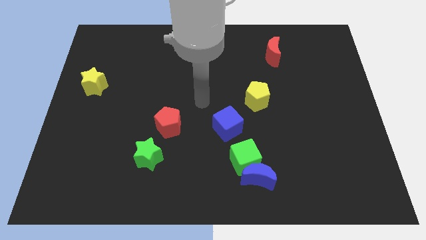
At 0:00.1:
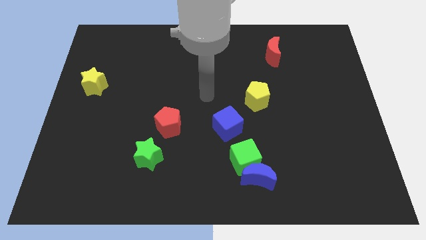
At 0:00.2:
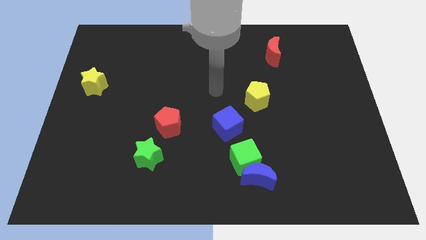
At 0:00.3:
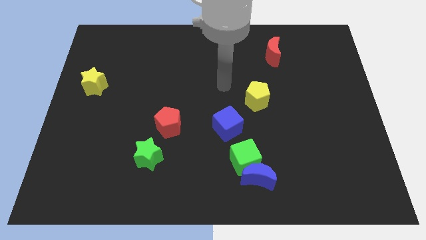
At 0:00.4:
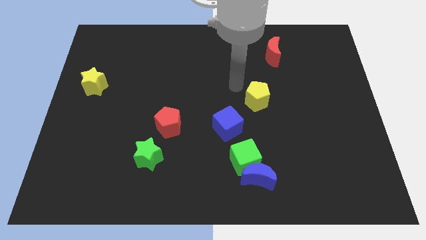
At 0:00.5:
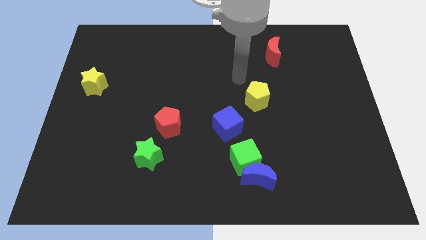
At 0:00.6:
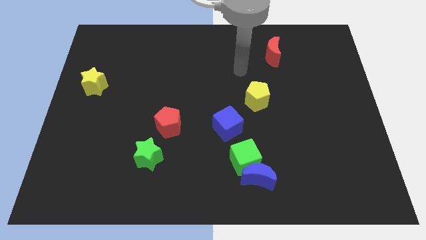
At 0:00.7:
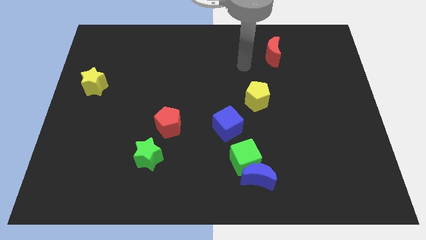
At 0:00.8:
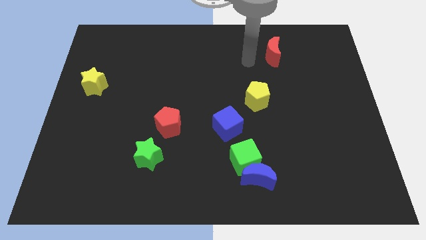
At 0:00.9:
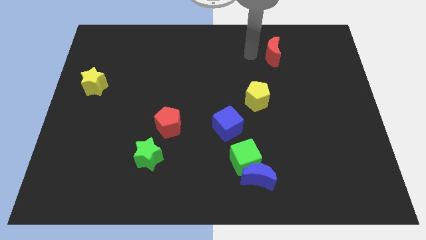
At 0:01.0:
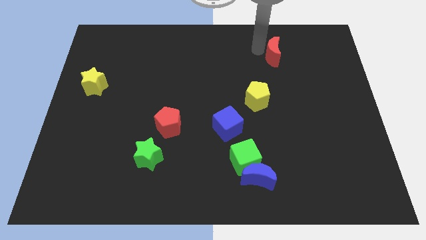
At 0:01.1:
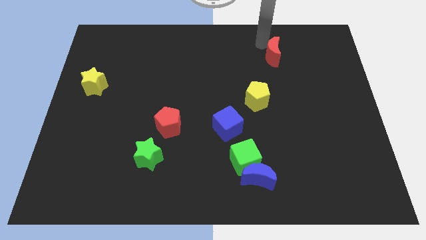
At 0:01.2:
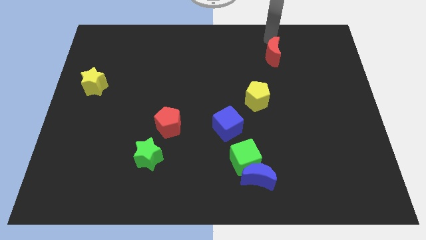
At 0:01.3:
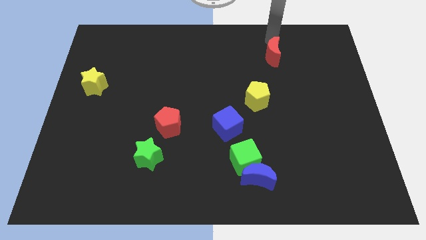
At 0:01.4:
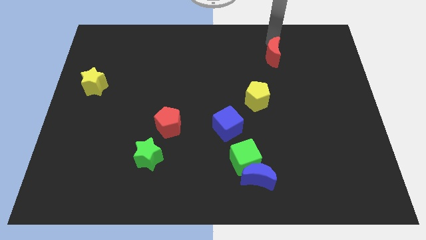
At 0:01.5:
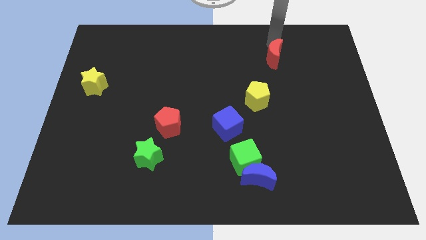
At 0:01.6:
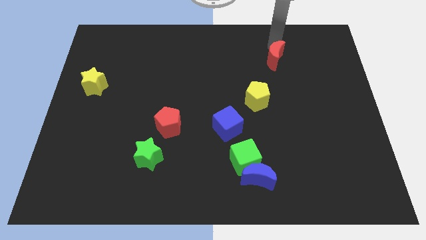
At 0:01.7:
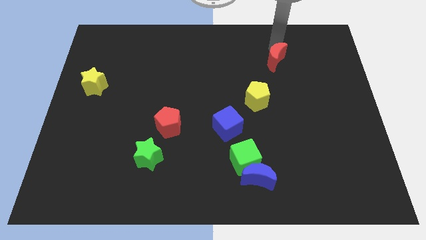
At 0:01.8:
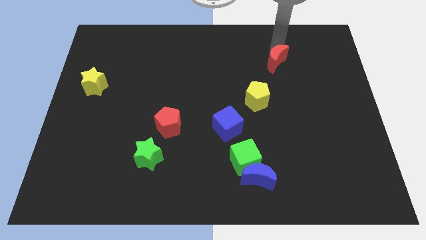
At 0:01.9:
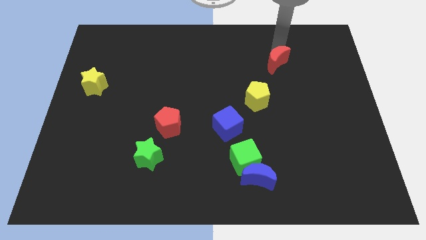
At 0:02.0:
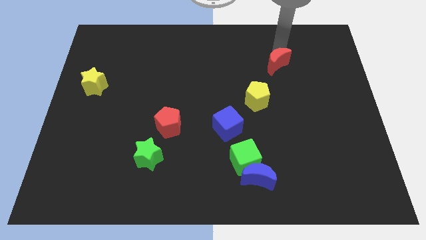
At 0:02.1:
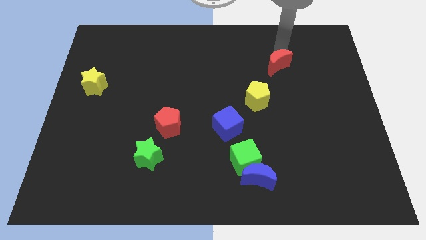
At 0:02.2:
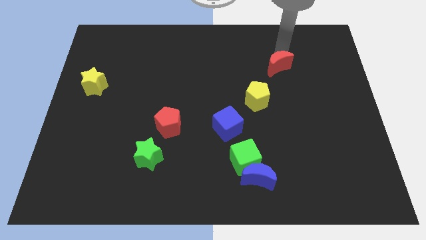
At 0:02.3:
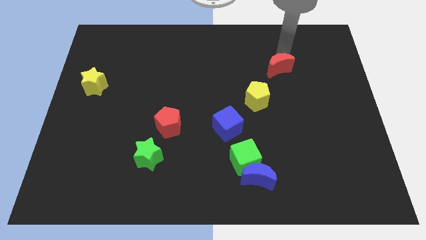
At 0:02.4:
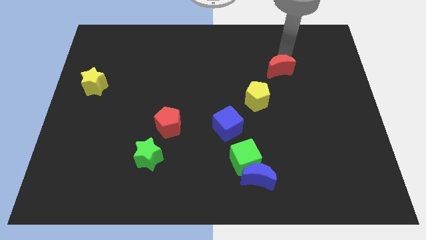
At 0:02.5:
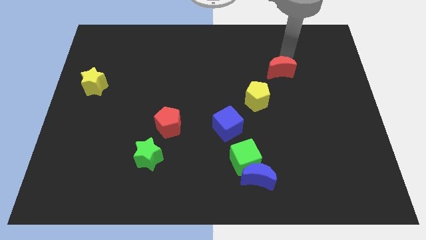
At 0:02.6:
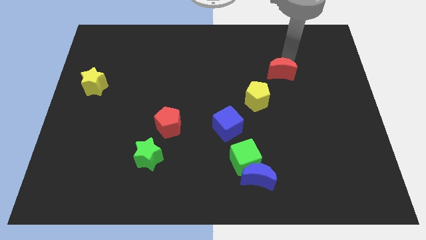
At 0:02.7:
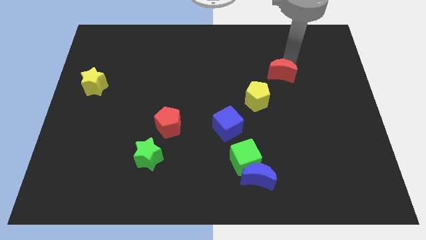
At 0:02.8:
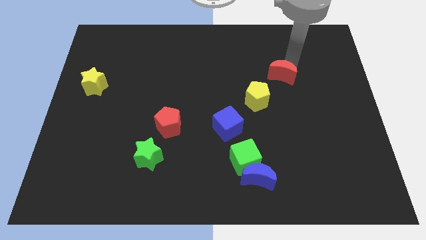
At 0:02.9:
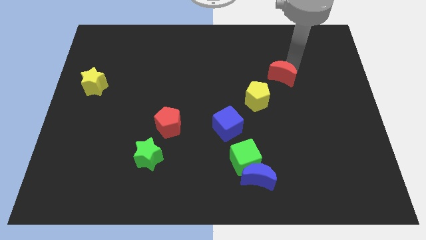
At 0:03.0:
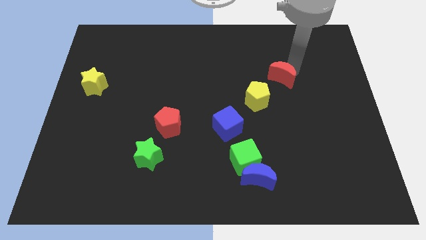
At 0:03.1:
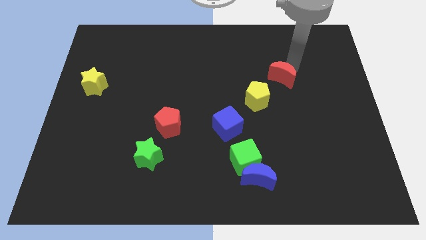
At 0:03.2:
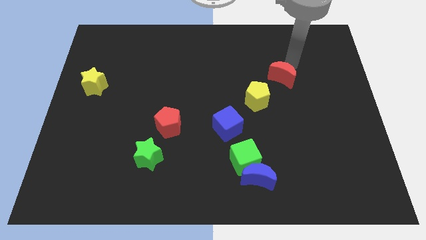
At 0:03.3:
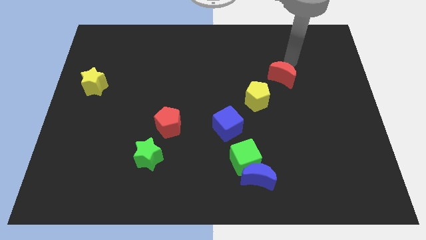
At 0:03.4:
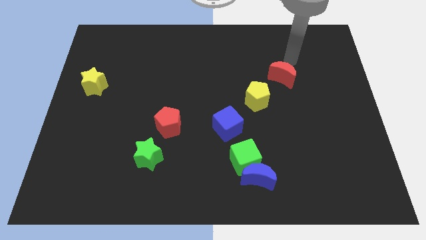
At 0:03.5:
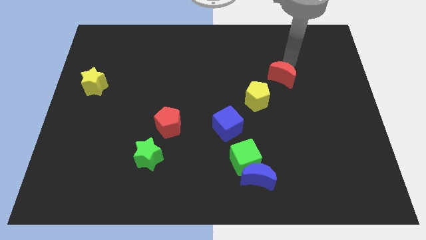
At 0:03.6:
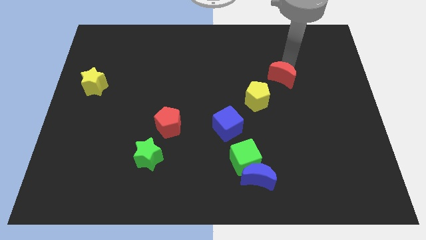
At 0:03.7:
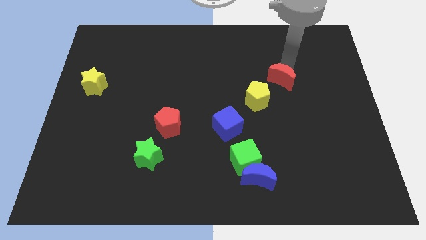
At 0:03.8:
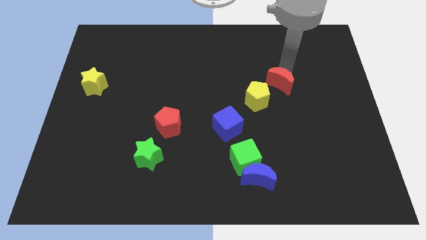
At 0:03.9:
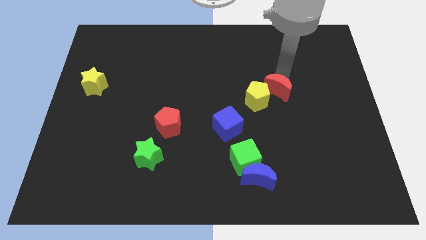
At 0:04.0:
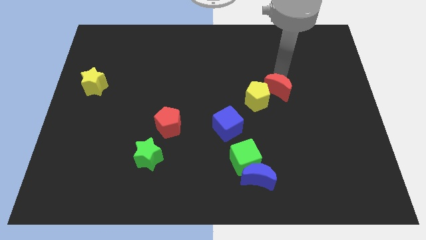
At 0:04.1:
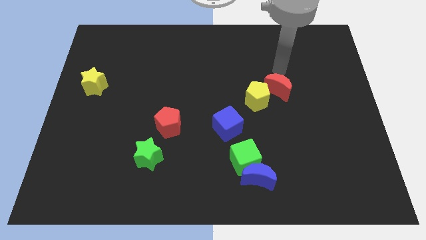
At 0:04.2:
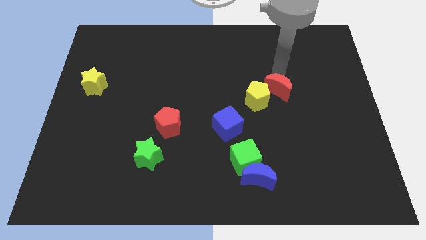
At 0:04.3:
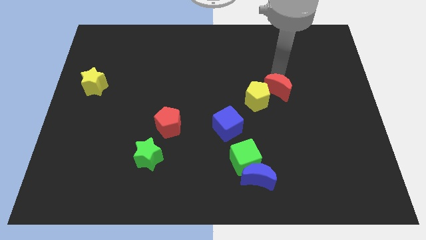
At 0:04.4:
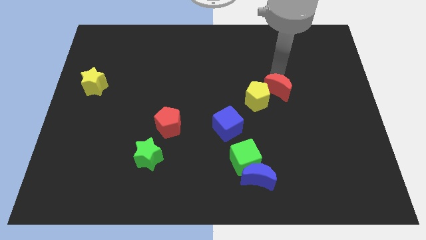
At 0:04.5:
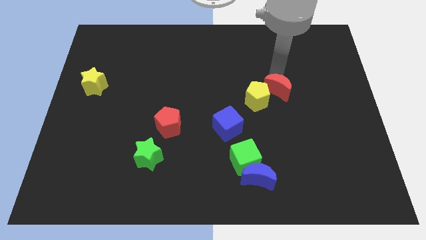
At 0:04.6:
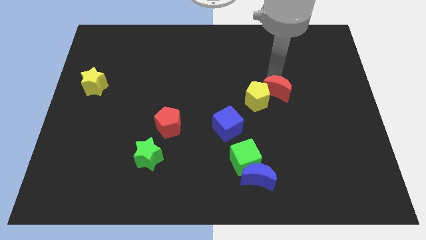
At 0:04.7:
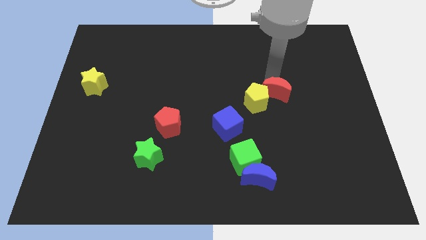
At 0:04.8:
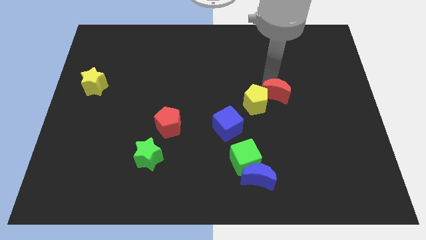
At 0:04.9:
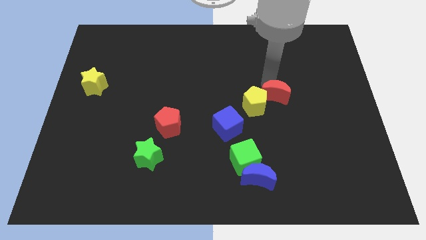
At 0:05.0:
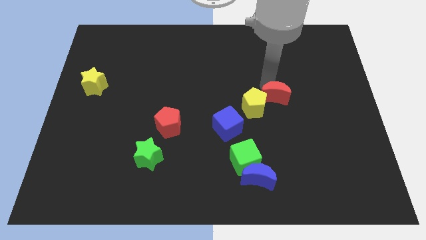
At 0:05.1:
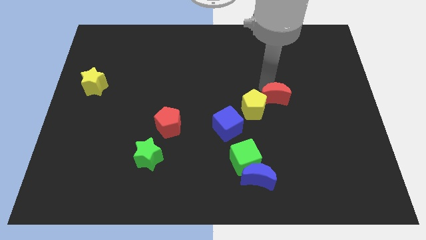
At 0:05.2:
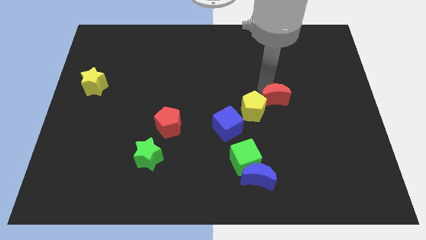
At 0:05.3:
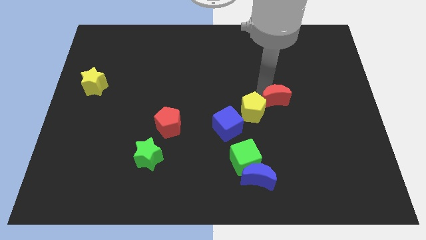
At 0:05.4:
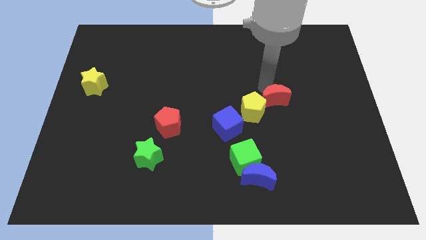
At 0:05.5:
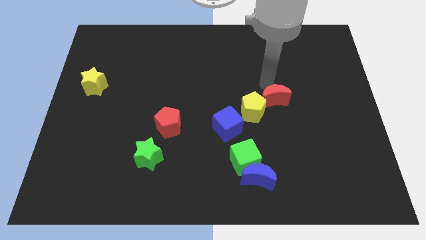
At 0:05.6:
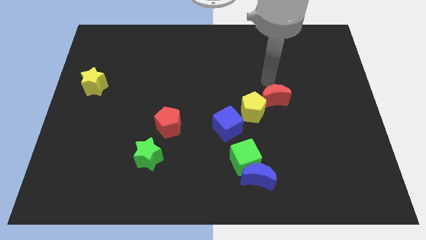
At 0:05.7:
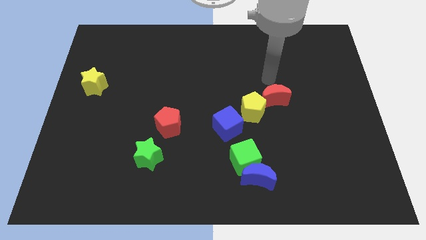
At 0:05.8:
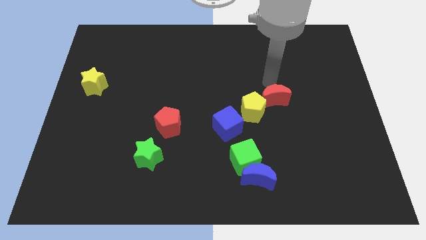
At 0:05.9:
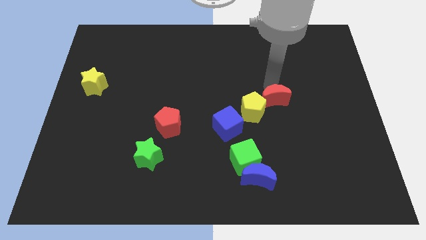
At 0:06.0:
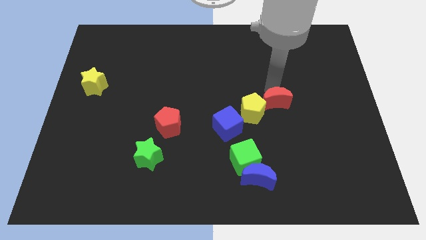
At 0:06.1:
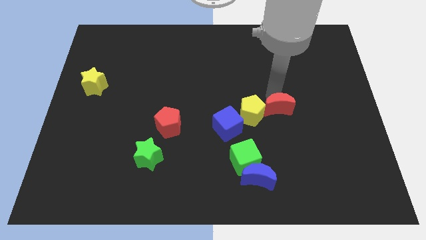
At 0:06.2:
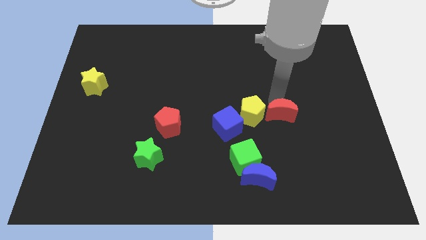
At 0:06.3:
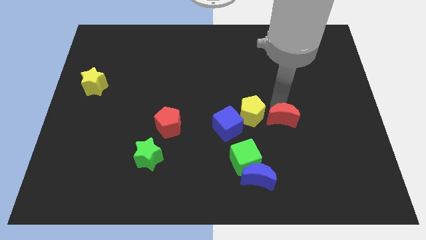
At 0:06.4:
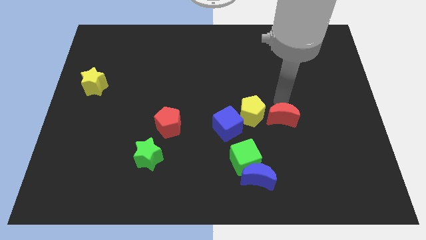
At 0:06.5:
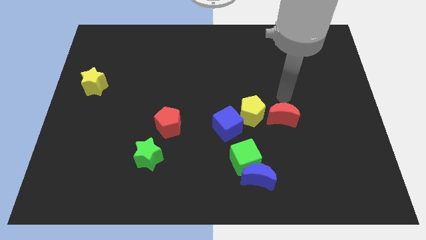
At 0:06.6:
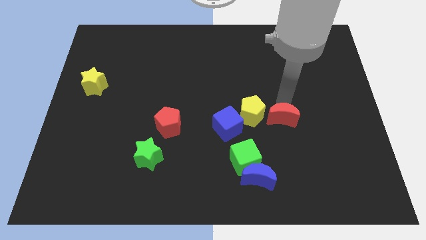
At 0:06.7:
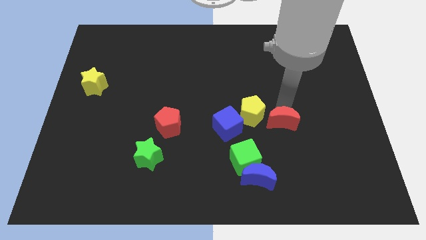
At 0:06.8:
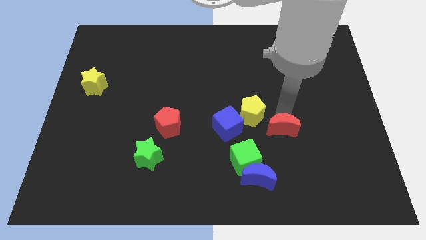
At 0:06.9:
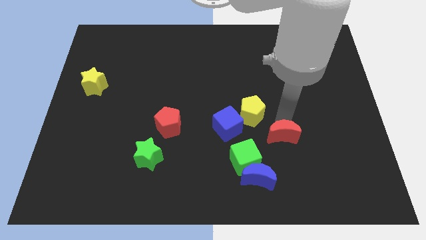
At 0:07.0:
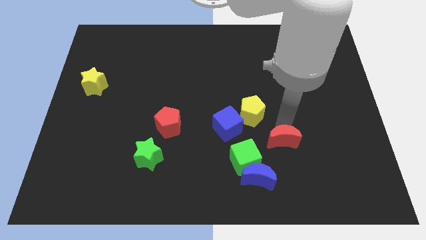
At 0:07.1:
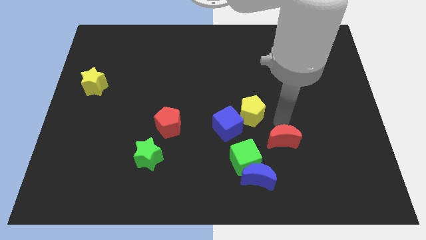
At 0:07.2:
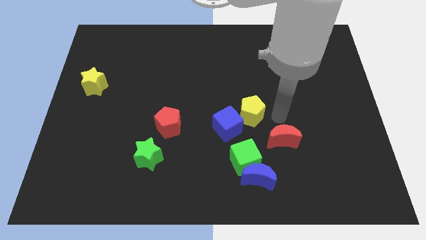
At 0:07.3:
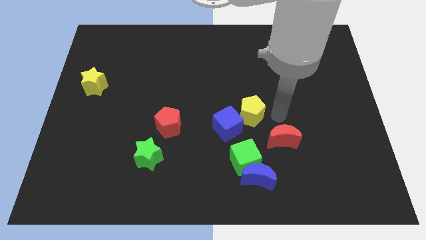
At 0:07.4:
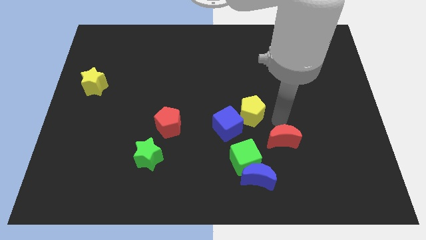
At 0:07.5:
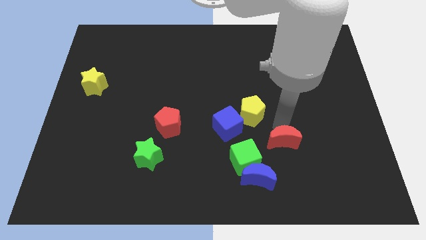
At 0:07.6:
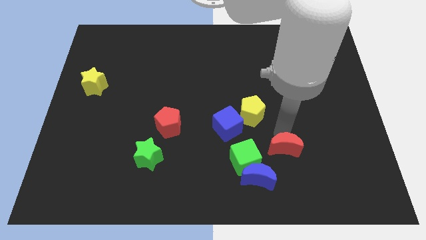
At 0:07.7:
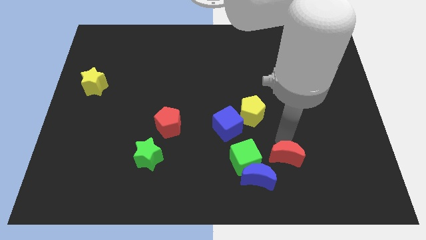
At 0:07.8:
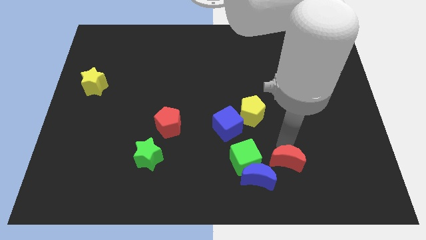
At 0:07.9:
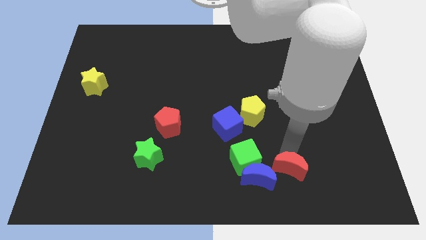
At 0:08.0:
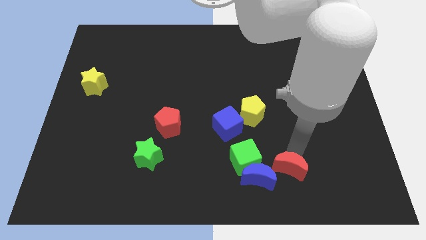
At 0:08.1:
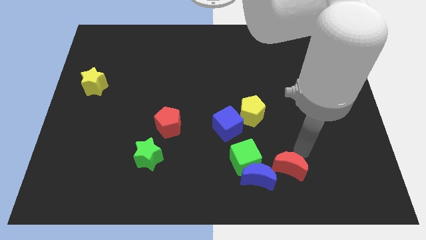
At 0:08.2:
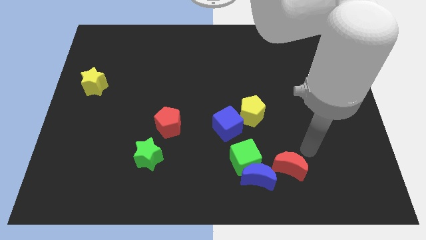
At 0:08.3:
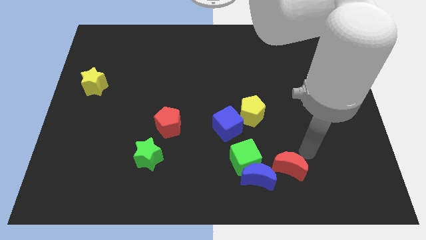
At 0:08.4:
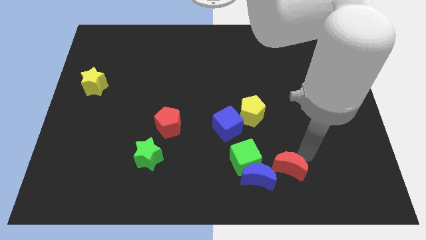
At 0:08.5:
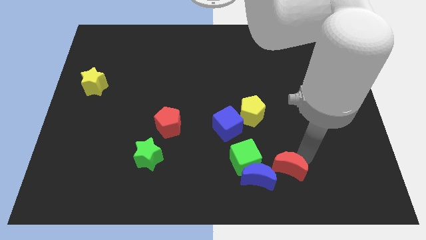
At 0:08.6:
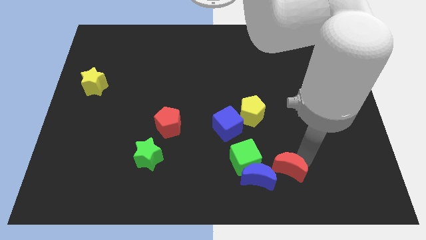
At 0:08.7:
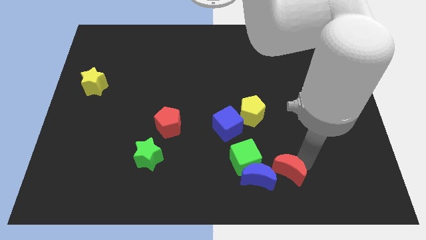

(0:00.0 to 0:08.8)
push the red moon to the bottom right of the green cube
